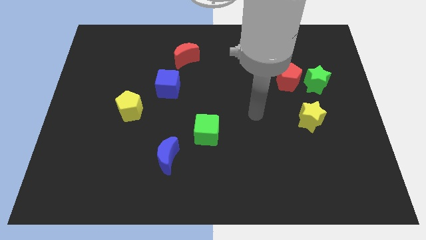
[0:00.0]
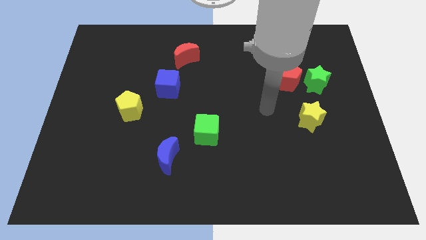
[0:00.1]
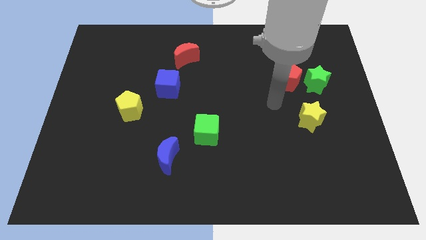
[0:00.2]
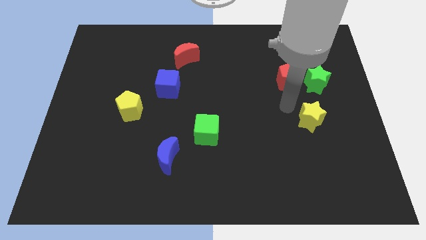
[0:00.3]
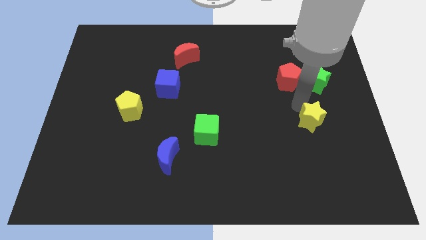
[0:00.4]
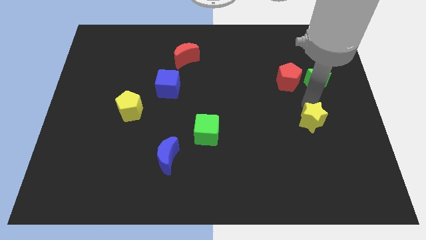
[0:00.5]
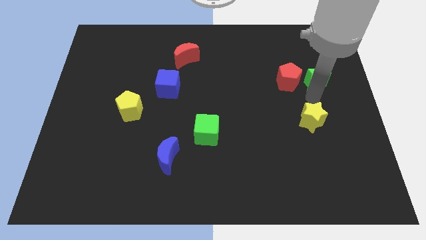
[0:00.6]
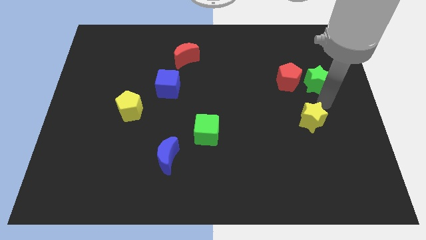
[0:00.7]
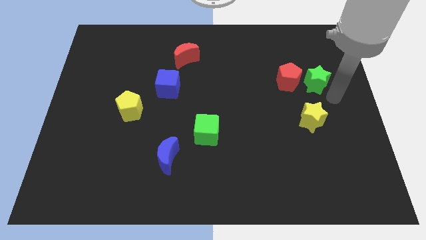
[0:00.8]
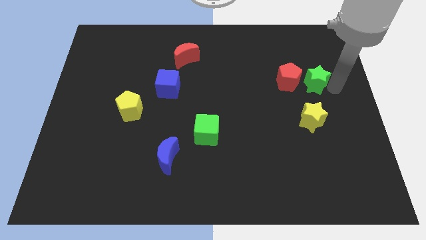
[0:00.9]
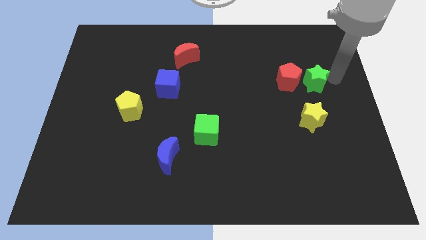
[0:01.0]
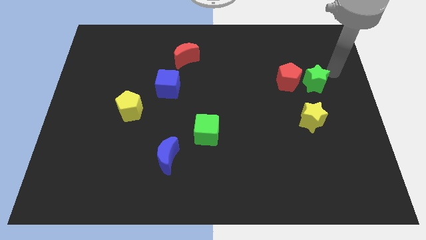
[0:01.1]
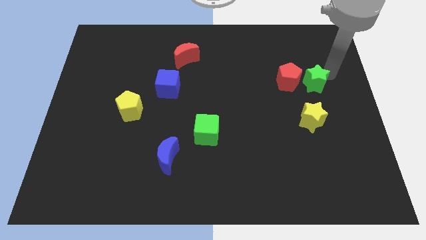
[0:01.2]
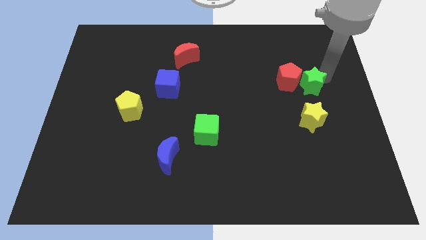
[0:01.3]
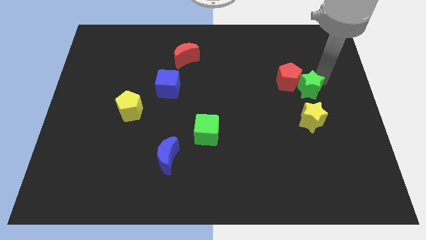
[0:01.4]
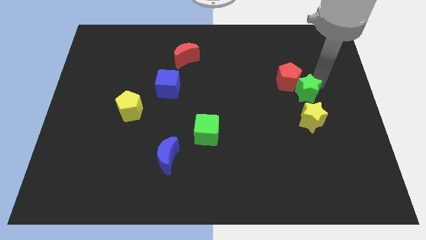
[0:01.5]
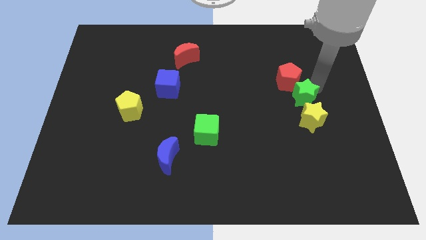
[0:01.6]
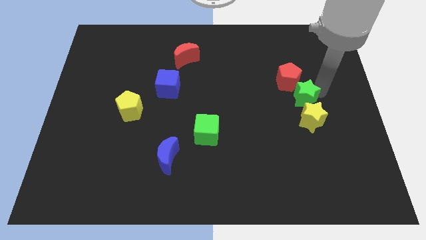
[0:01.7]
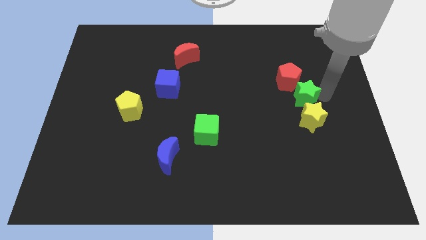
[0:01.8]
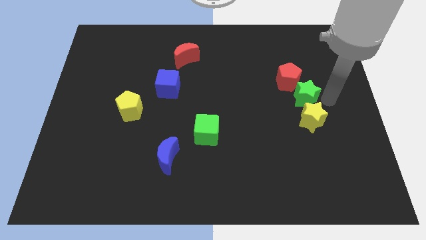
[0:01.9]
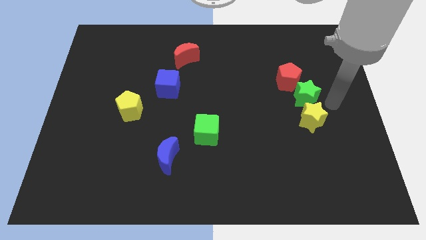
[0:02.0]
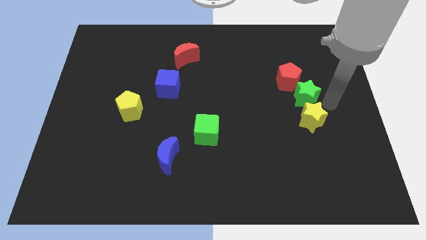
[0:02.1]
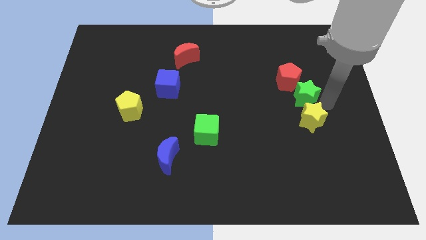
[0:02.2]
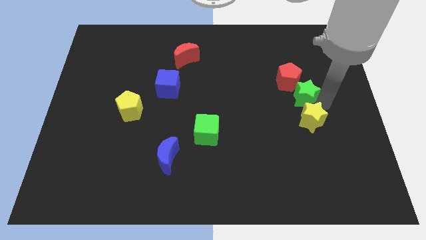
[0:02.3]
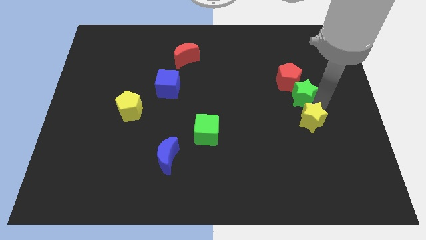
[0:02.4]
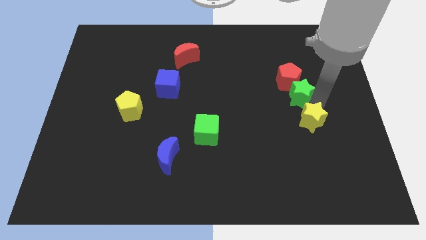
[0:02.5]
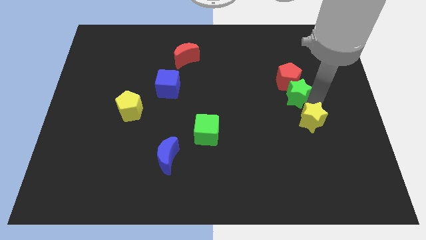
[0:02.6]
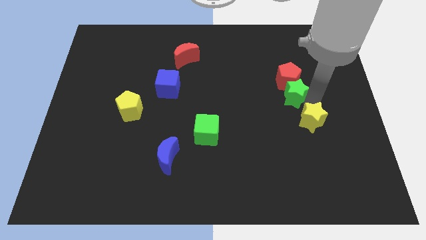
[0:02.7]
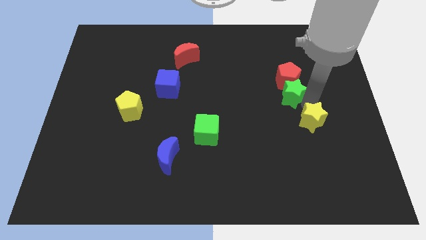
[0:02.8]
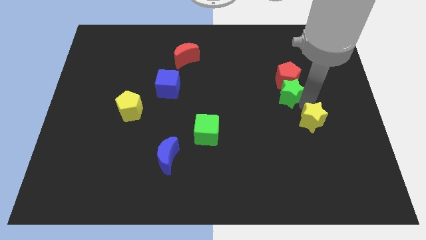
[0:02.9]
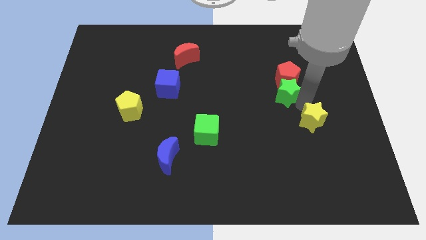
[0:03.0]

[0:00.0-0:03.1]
slide the green star somewhat to the left

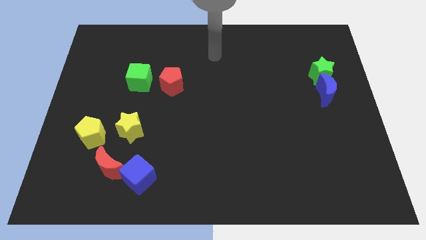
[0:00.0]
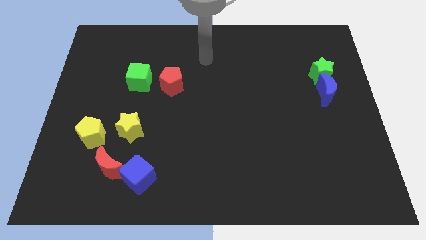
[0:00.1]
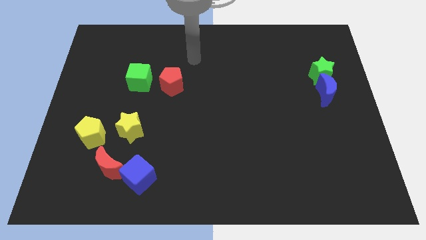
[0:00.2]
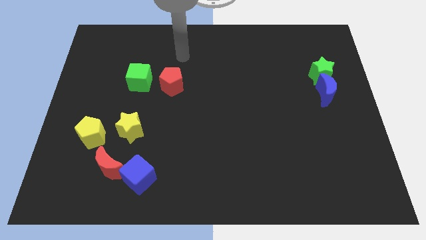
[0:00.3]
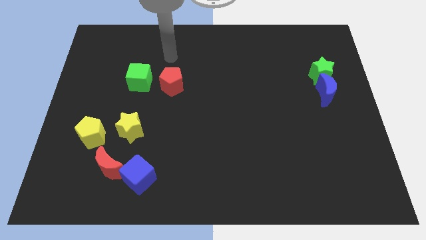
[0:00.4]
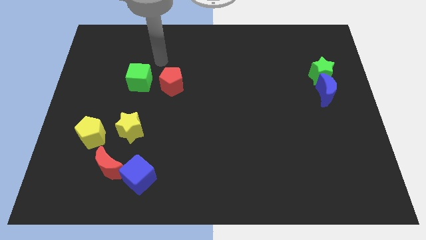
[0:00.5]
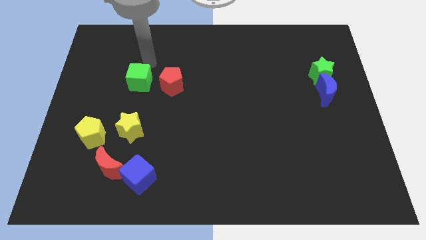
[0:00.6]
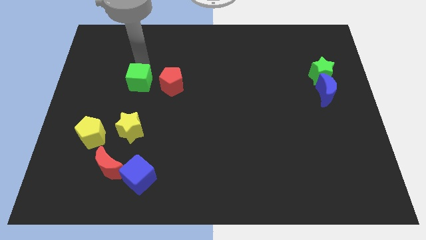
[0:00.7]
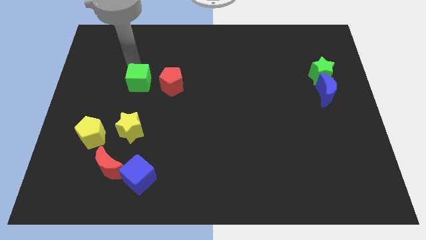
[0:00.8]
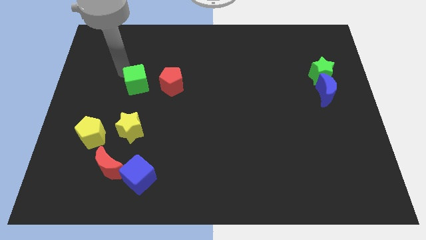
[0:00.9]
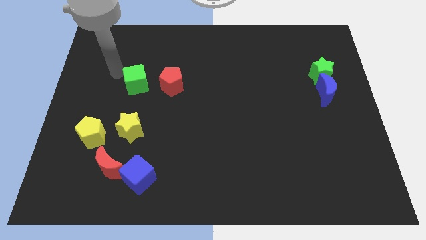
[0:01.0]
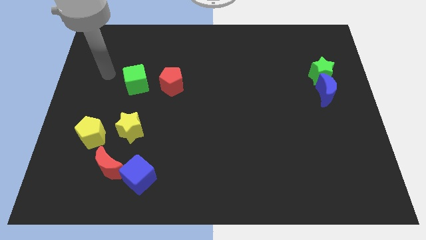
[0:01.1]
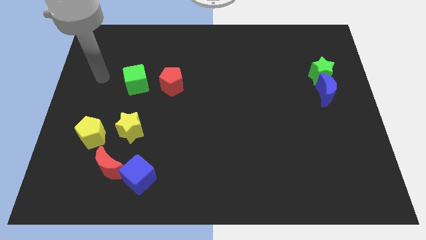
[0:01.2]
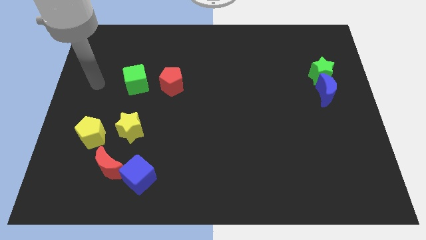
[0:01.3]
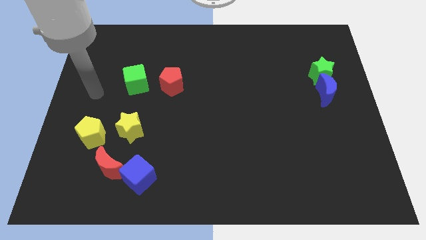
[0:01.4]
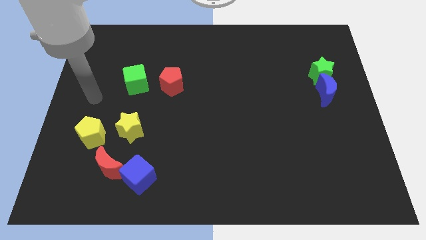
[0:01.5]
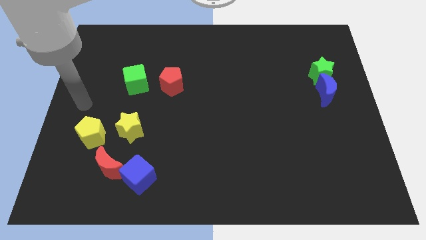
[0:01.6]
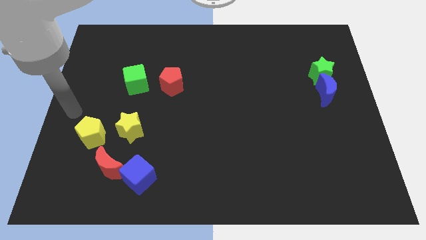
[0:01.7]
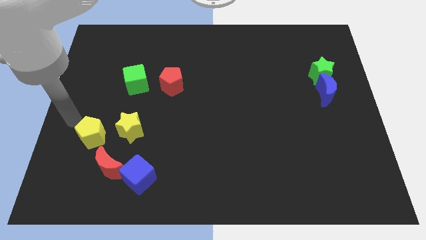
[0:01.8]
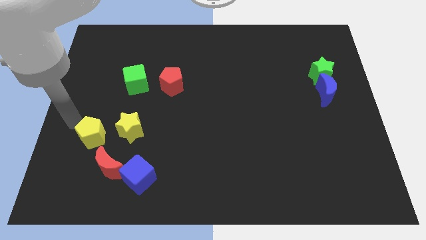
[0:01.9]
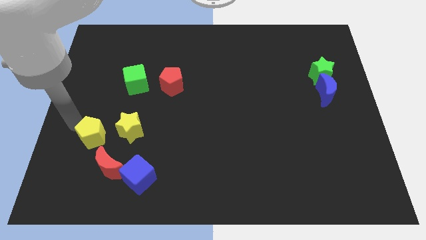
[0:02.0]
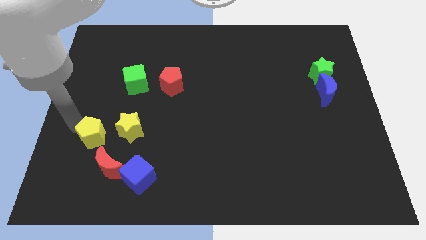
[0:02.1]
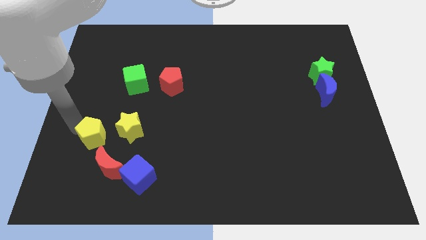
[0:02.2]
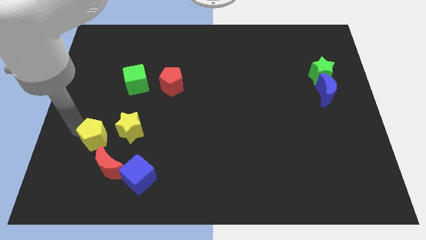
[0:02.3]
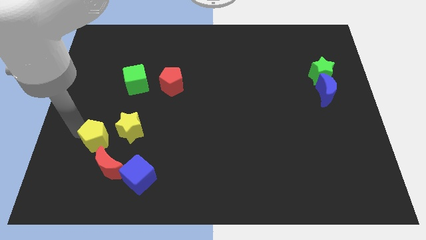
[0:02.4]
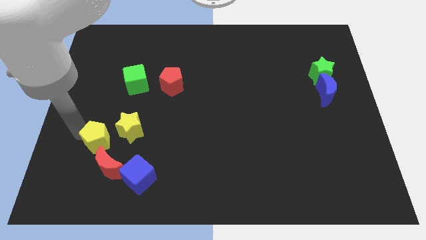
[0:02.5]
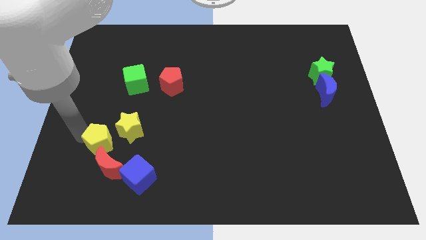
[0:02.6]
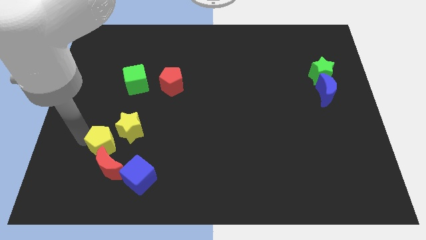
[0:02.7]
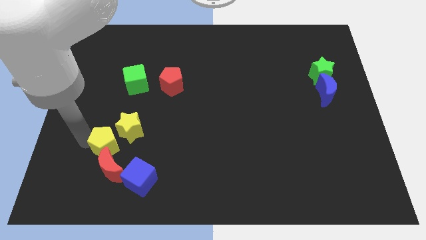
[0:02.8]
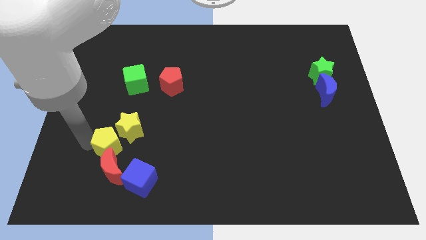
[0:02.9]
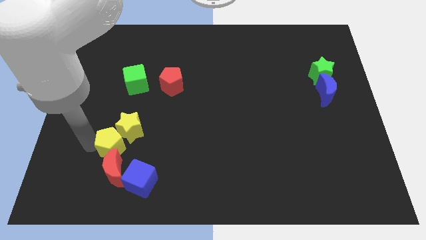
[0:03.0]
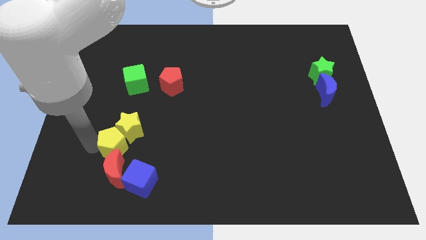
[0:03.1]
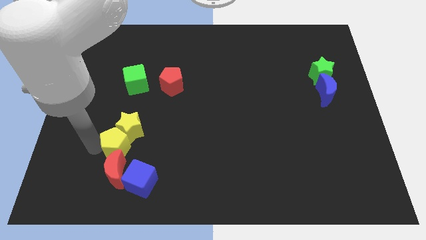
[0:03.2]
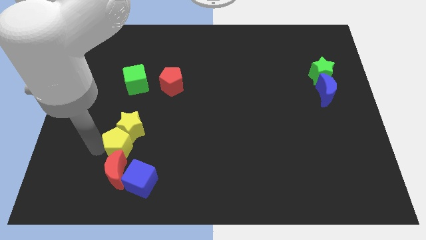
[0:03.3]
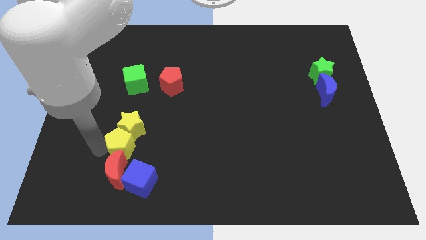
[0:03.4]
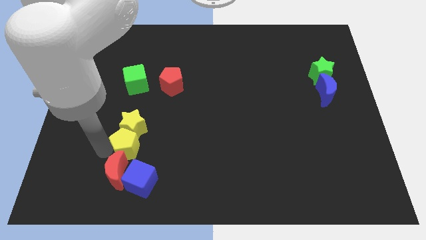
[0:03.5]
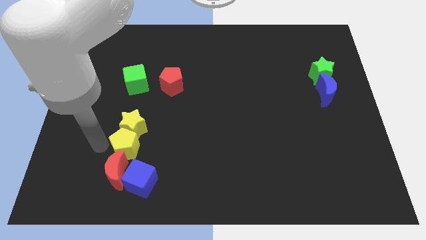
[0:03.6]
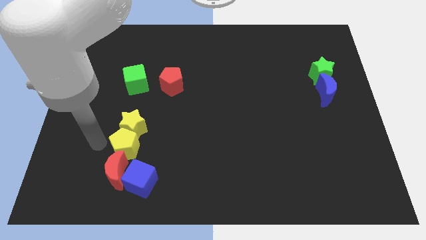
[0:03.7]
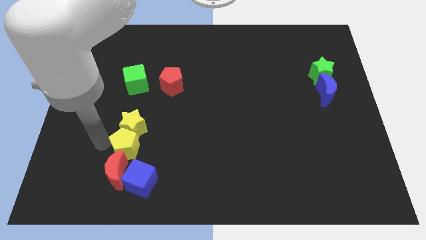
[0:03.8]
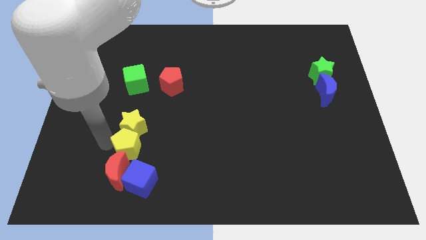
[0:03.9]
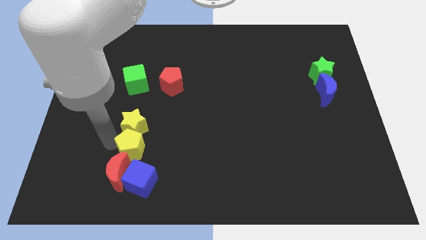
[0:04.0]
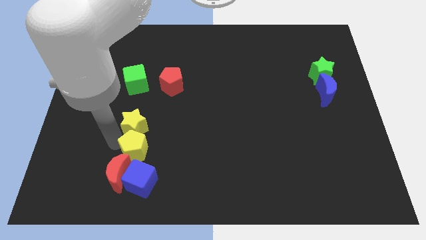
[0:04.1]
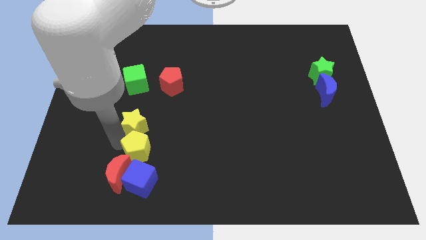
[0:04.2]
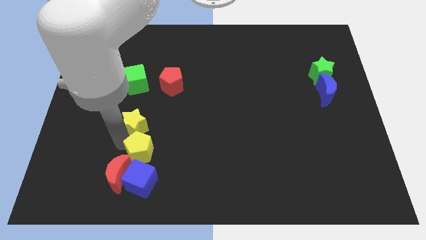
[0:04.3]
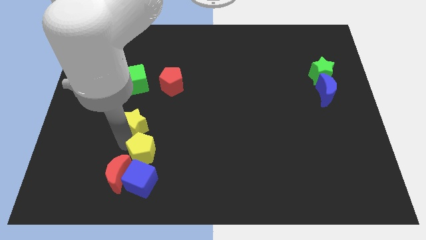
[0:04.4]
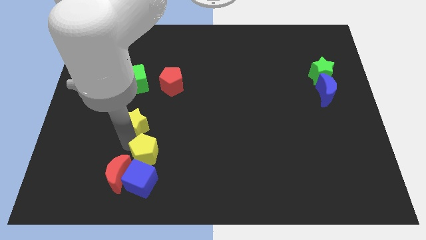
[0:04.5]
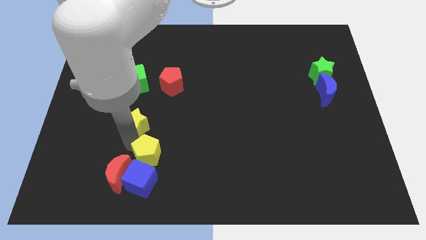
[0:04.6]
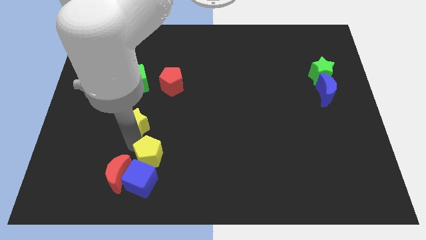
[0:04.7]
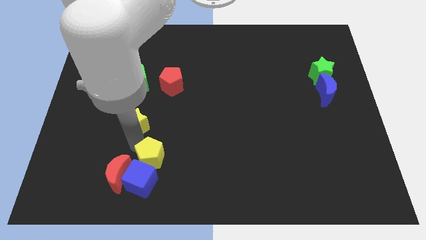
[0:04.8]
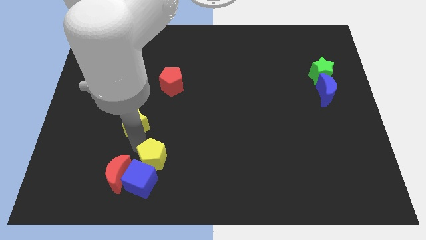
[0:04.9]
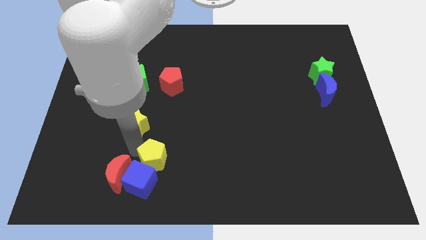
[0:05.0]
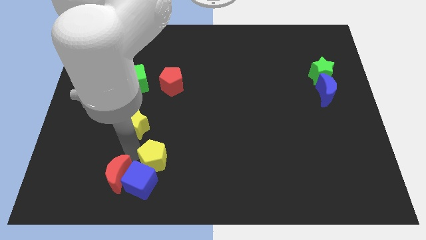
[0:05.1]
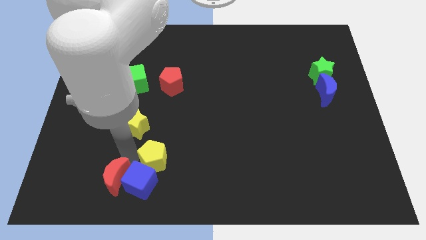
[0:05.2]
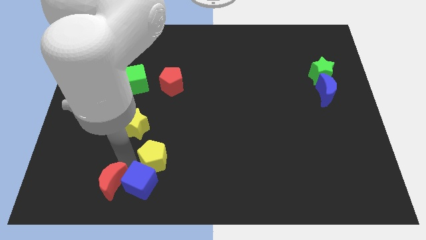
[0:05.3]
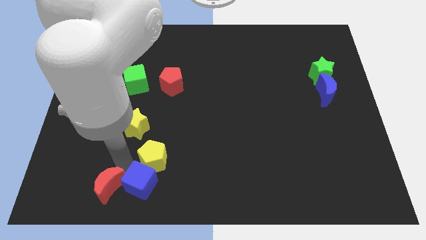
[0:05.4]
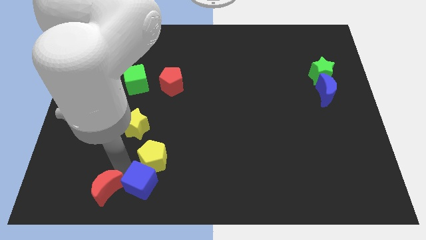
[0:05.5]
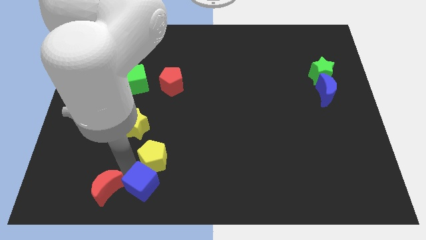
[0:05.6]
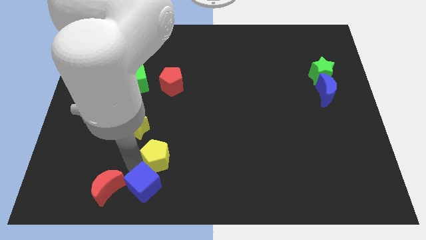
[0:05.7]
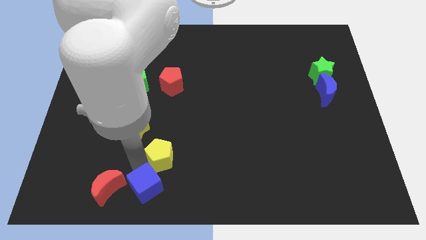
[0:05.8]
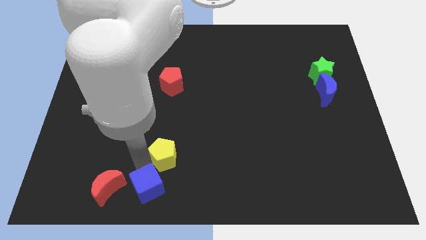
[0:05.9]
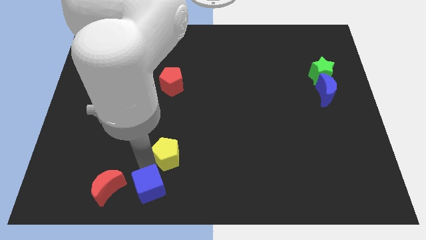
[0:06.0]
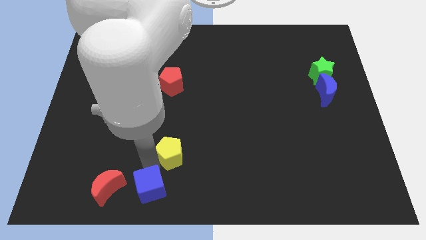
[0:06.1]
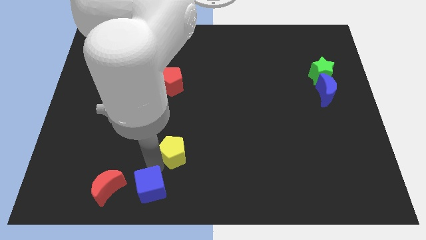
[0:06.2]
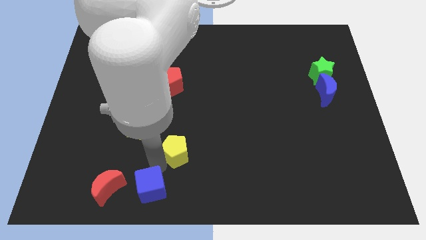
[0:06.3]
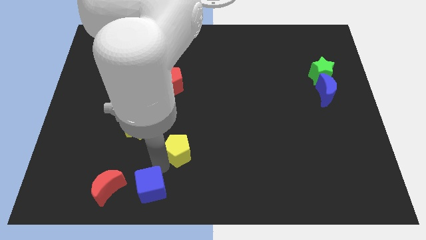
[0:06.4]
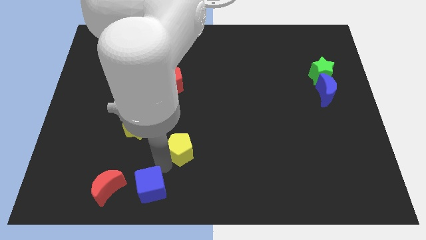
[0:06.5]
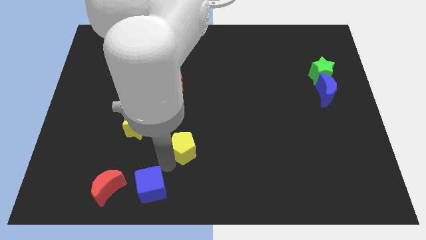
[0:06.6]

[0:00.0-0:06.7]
move the yellow pentagon right
